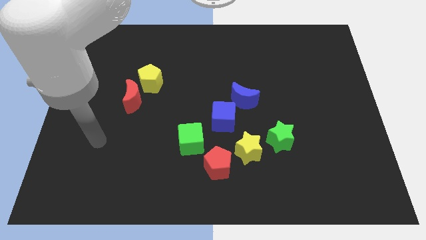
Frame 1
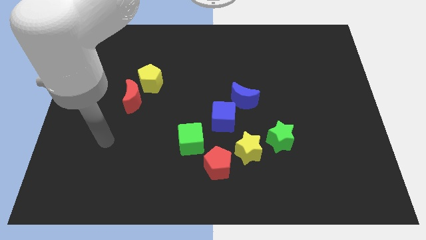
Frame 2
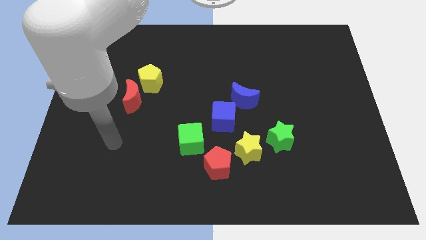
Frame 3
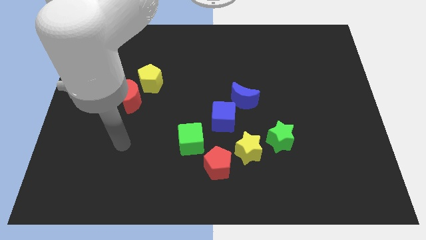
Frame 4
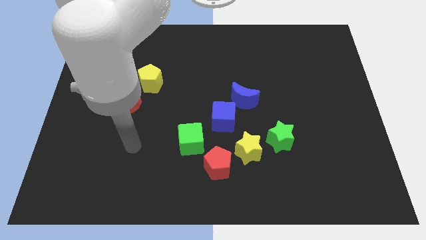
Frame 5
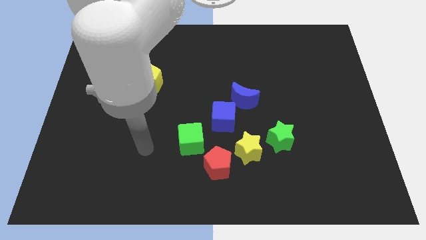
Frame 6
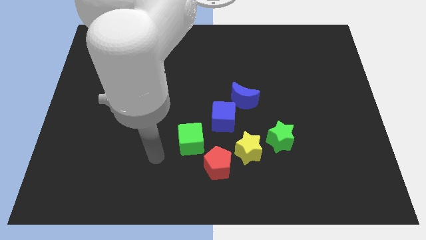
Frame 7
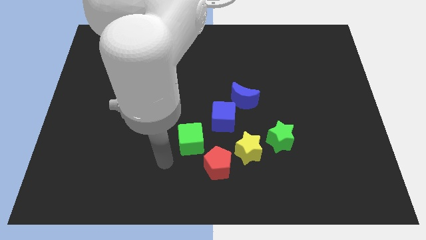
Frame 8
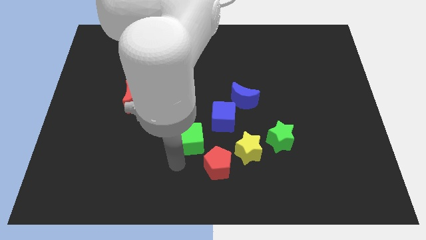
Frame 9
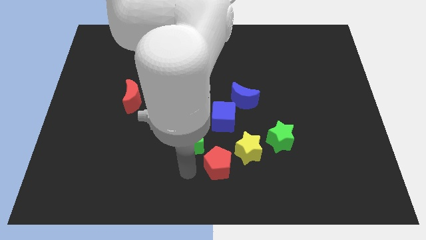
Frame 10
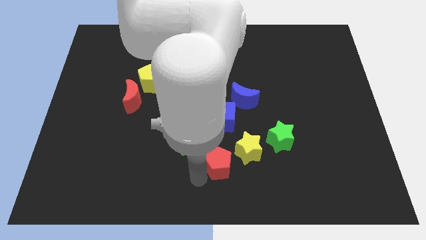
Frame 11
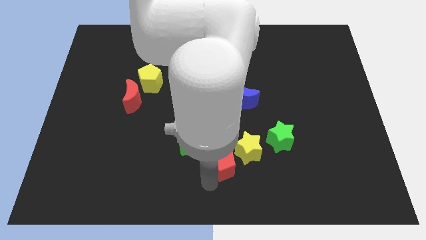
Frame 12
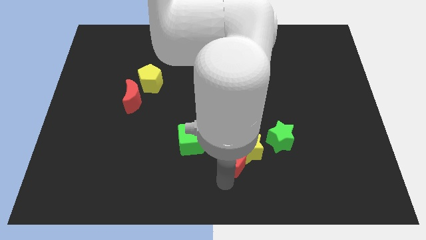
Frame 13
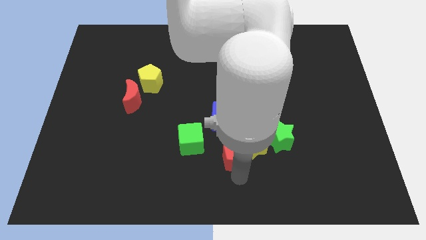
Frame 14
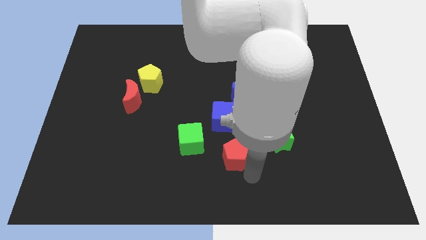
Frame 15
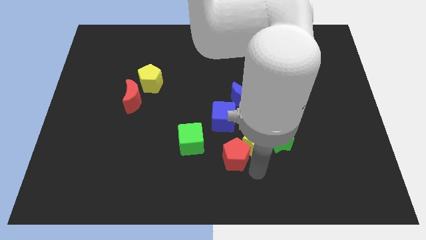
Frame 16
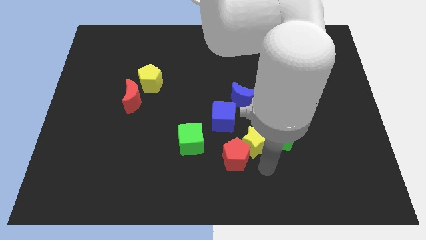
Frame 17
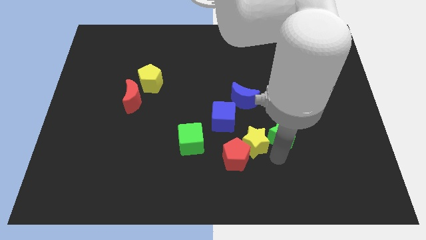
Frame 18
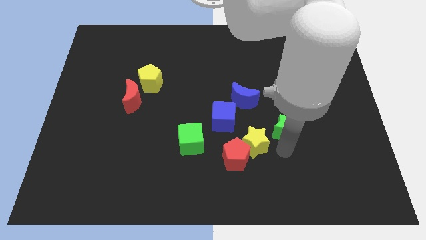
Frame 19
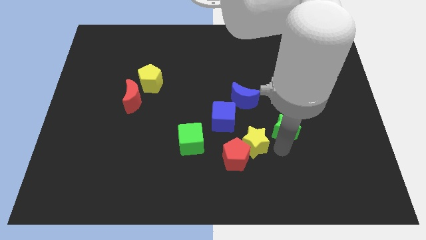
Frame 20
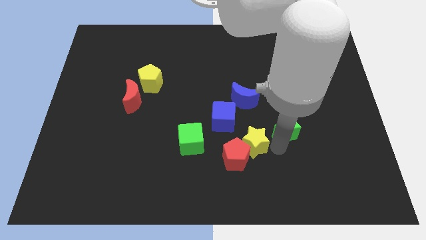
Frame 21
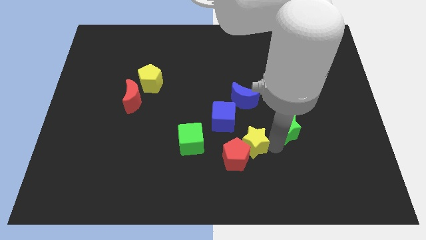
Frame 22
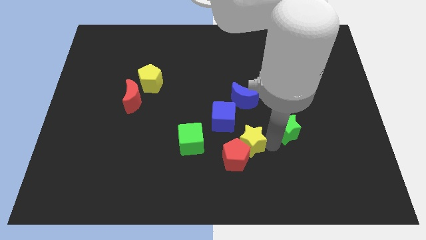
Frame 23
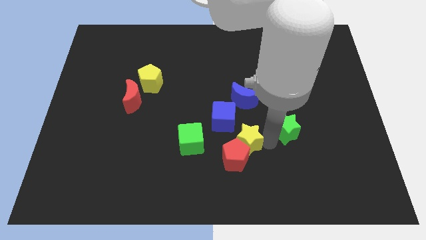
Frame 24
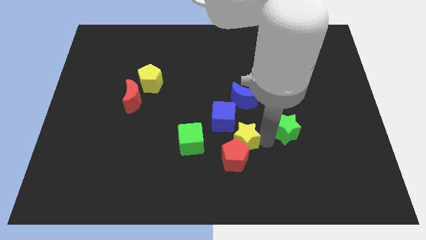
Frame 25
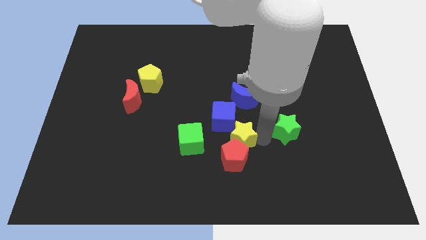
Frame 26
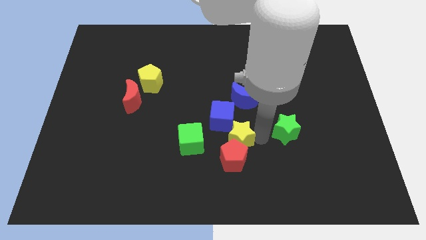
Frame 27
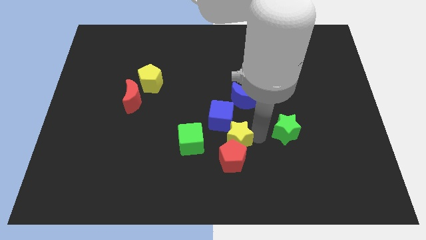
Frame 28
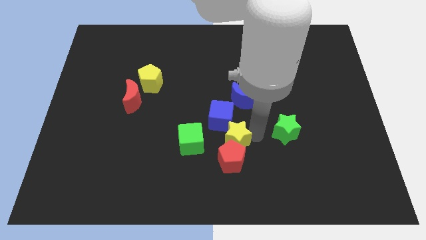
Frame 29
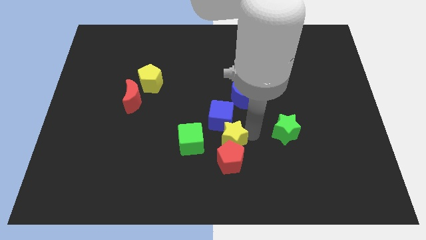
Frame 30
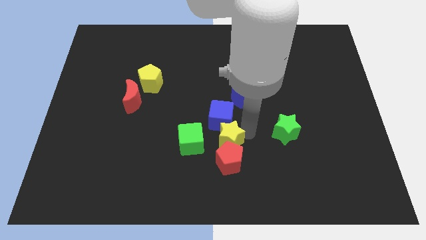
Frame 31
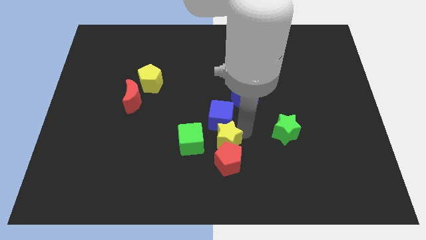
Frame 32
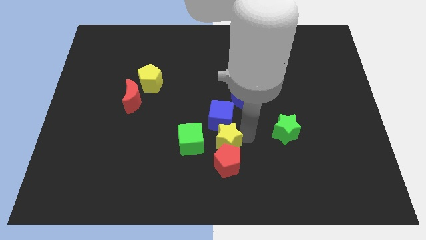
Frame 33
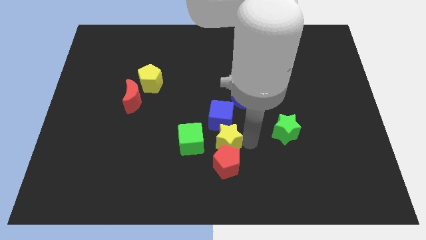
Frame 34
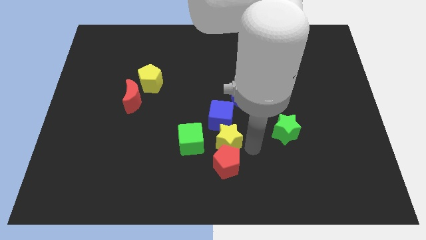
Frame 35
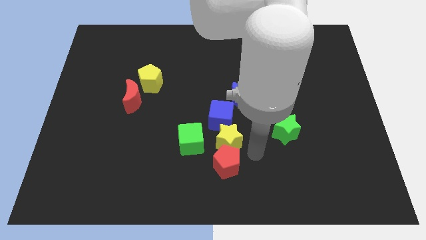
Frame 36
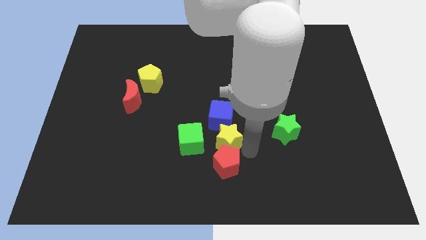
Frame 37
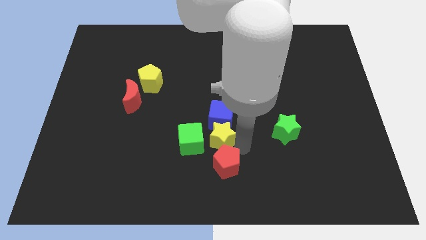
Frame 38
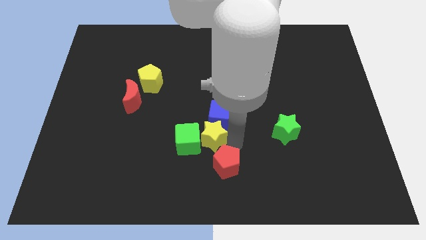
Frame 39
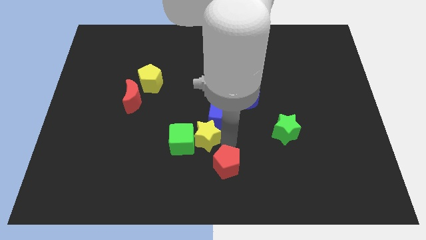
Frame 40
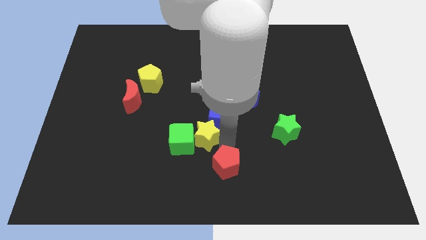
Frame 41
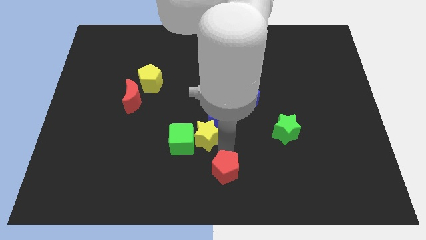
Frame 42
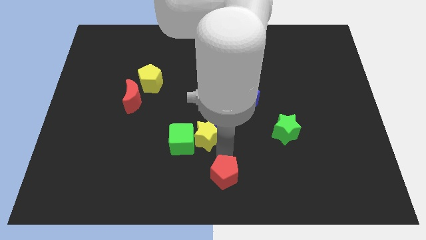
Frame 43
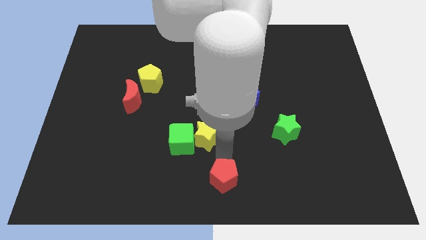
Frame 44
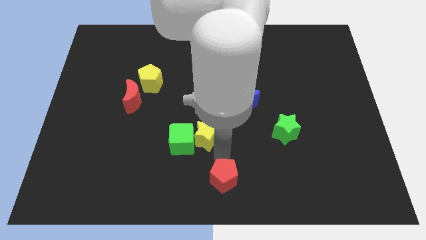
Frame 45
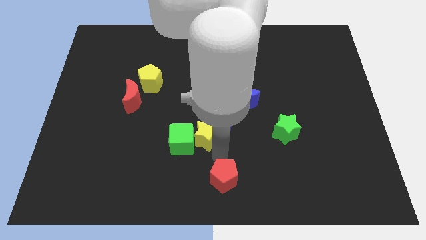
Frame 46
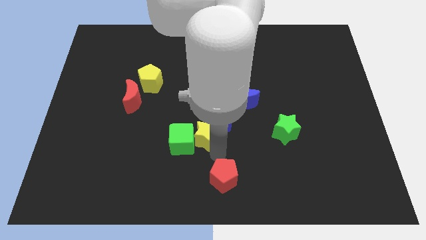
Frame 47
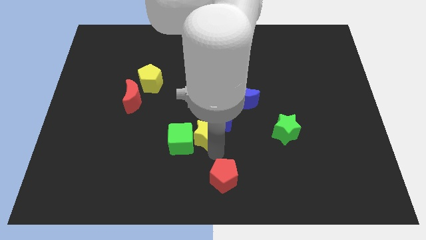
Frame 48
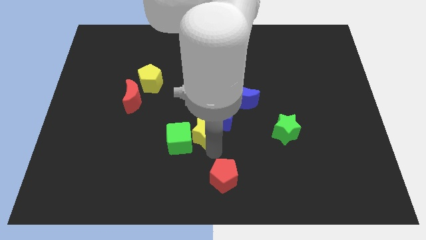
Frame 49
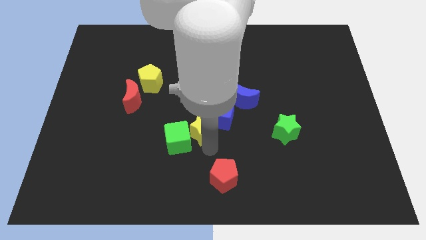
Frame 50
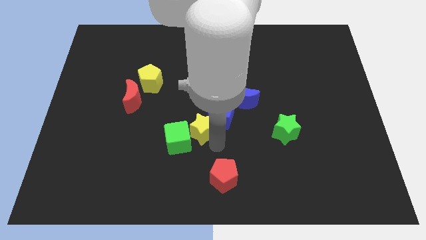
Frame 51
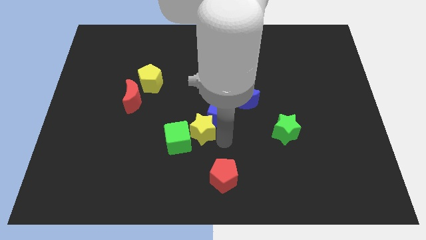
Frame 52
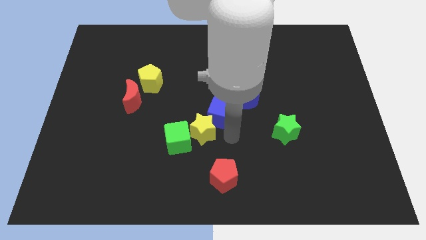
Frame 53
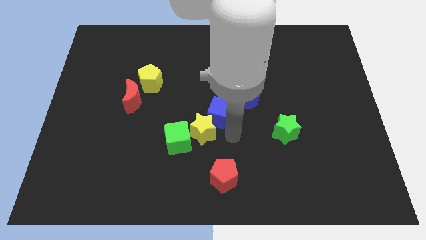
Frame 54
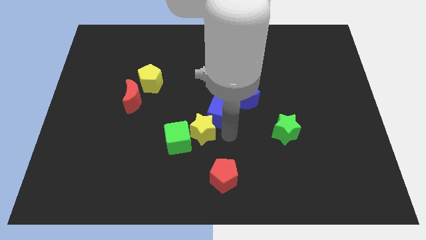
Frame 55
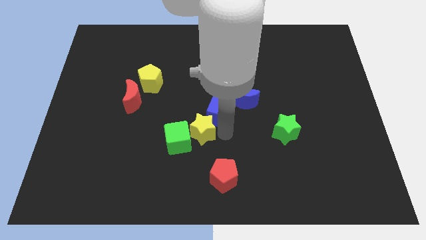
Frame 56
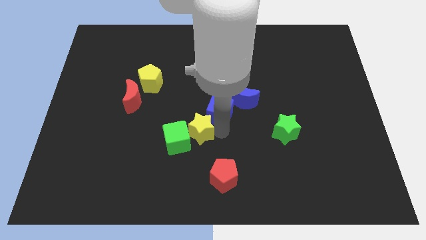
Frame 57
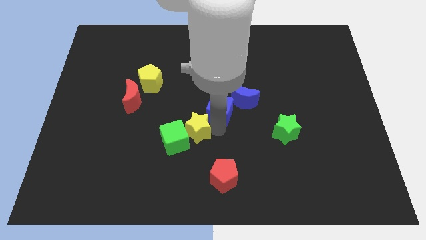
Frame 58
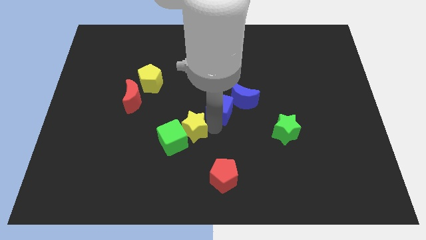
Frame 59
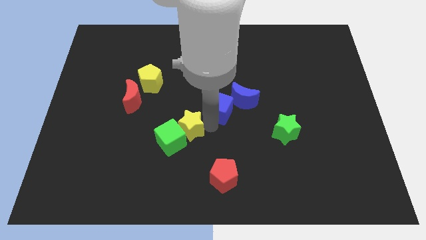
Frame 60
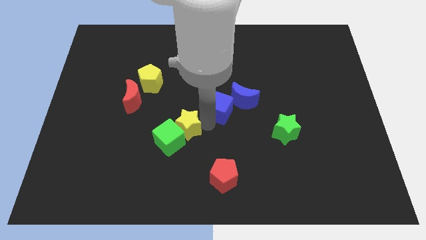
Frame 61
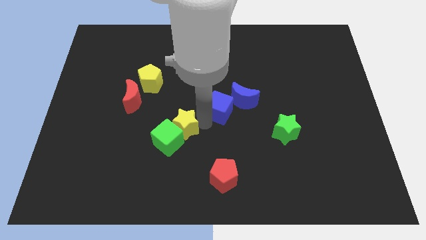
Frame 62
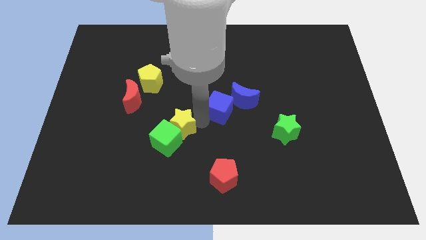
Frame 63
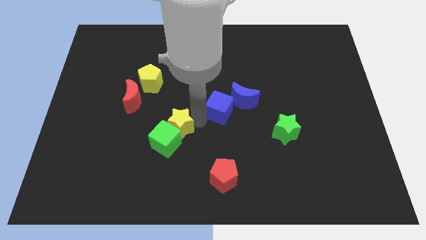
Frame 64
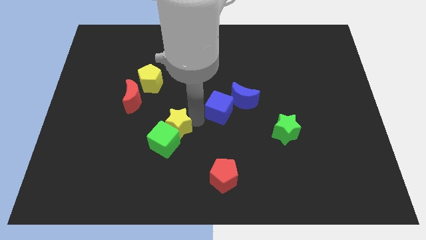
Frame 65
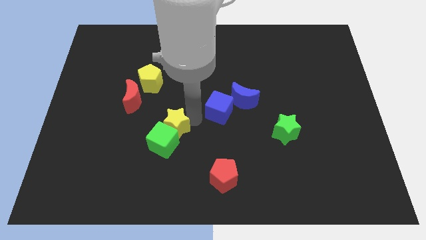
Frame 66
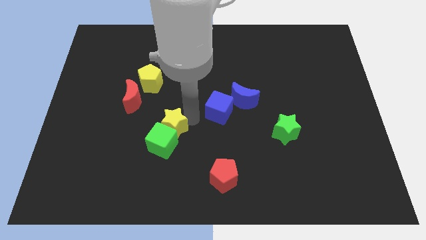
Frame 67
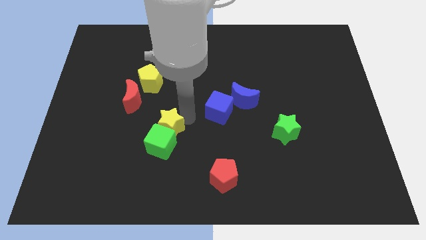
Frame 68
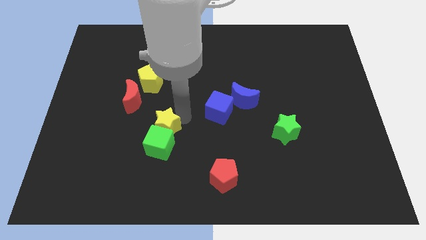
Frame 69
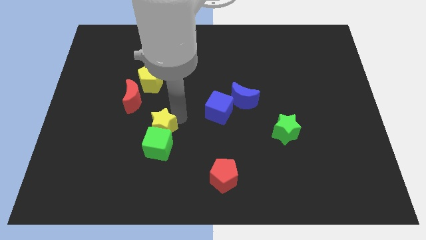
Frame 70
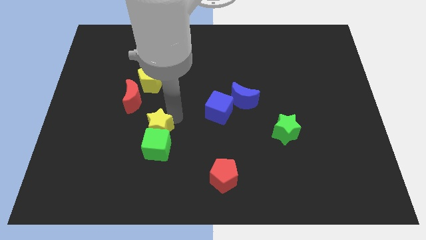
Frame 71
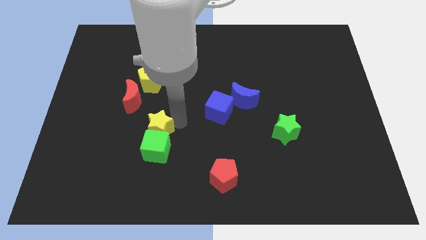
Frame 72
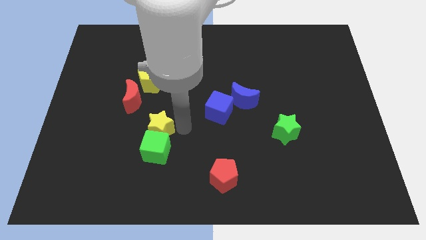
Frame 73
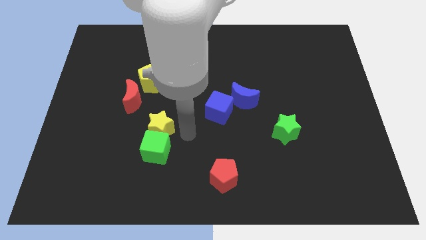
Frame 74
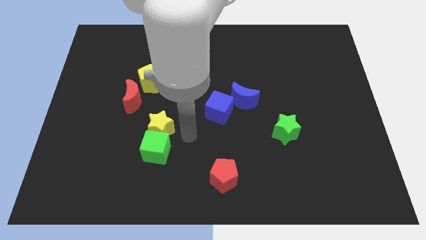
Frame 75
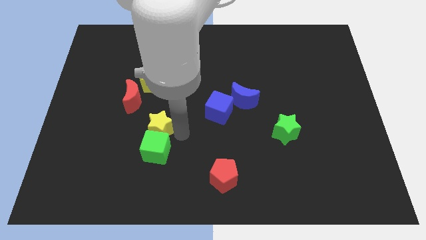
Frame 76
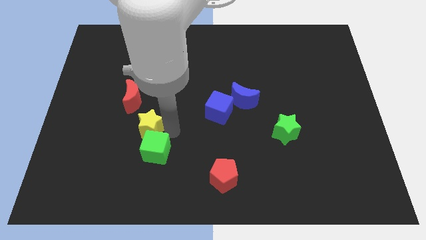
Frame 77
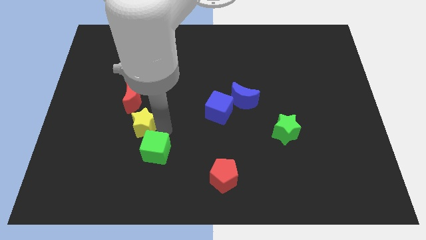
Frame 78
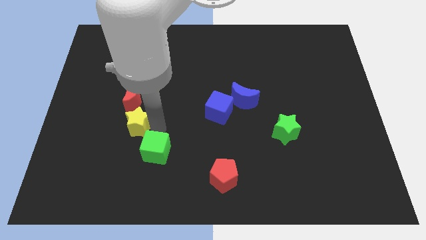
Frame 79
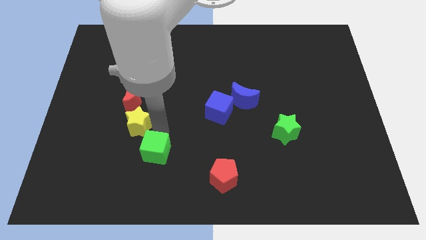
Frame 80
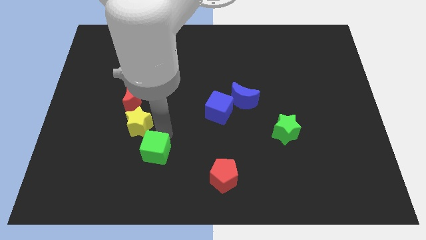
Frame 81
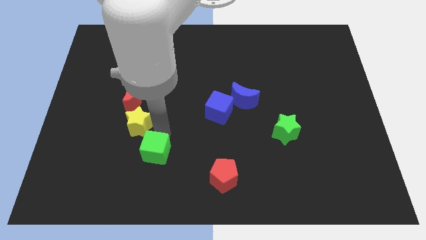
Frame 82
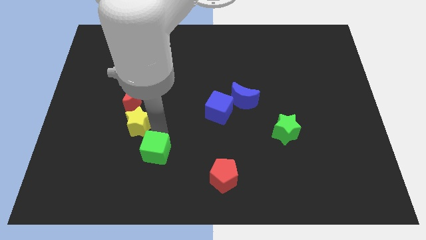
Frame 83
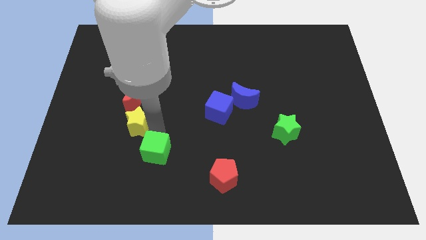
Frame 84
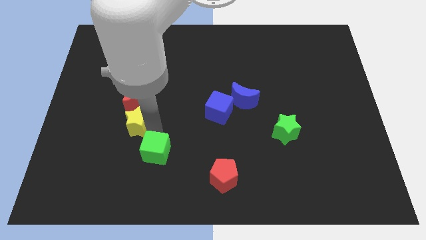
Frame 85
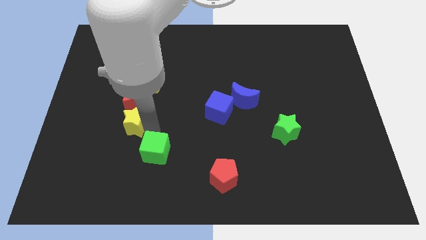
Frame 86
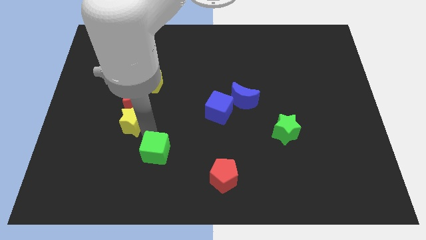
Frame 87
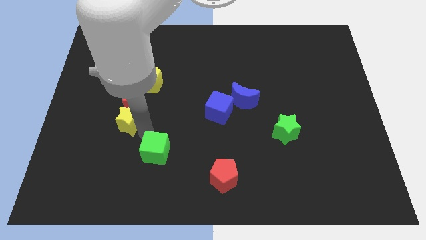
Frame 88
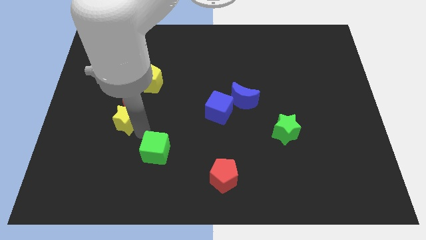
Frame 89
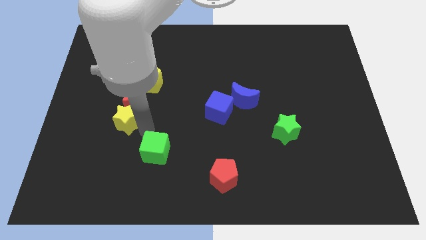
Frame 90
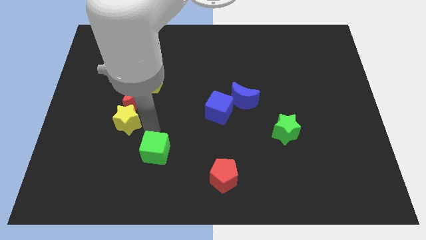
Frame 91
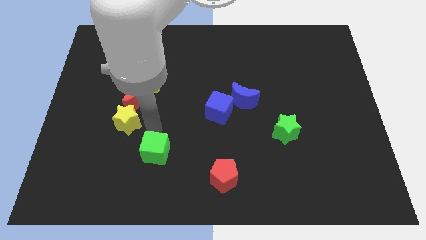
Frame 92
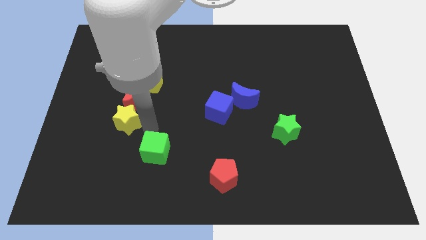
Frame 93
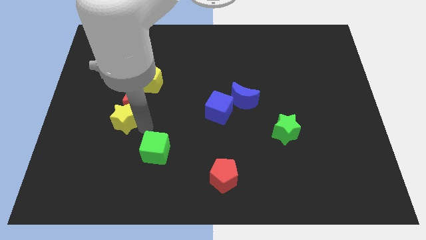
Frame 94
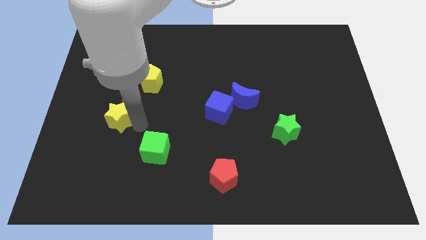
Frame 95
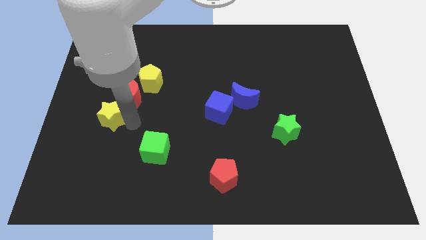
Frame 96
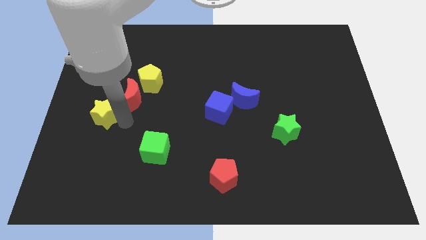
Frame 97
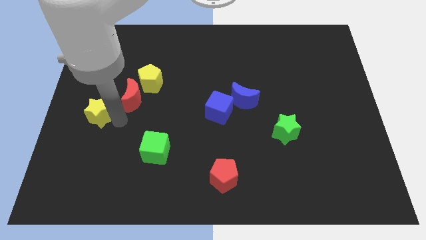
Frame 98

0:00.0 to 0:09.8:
slide the yellow star to the center left
